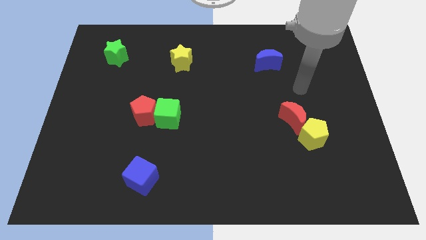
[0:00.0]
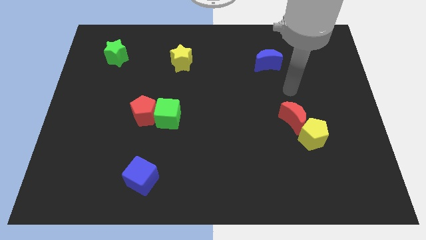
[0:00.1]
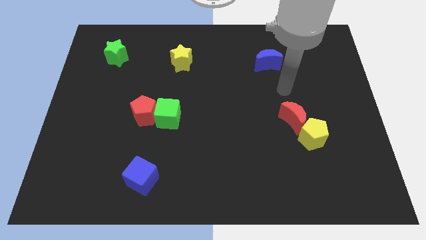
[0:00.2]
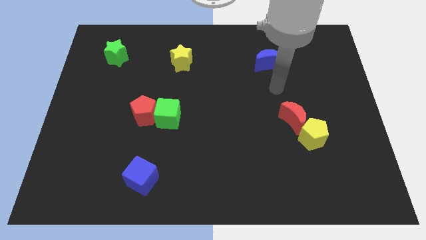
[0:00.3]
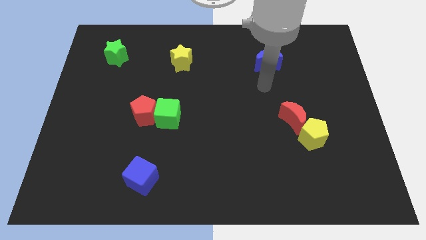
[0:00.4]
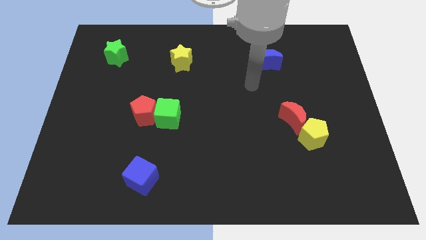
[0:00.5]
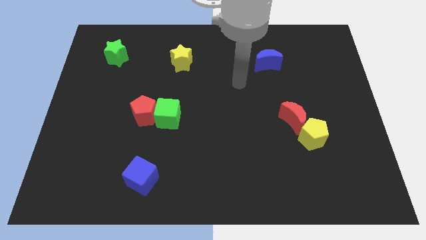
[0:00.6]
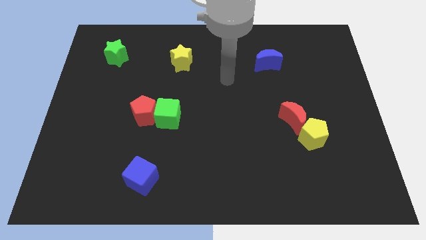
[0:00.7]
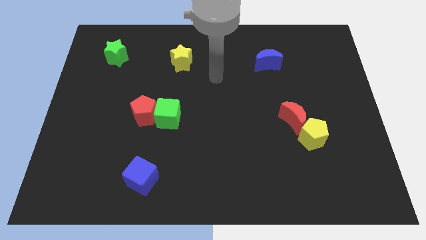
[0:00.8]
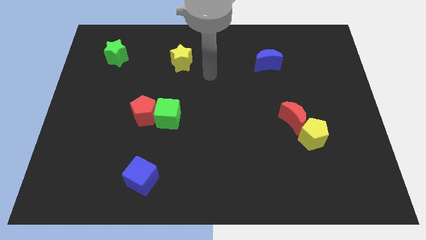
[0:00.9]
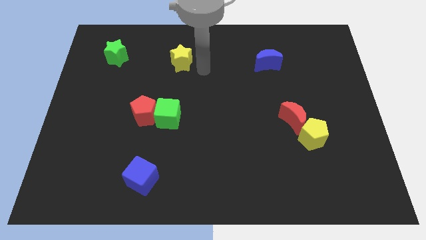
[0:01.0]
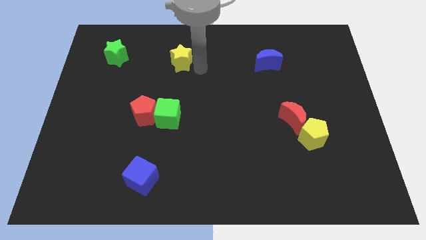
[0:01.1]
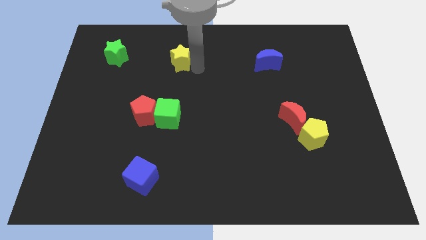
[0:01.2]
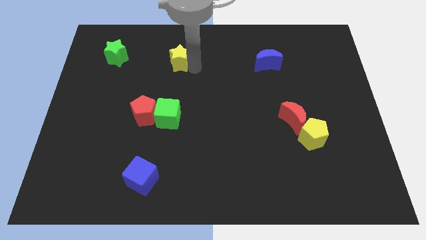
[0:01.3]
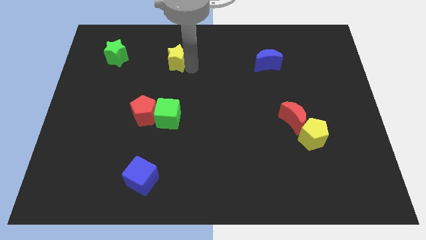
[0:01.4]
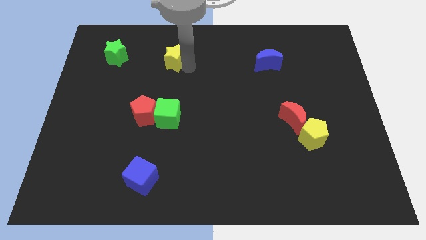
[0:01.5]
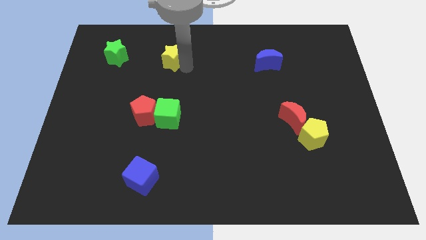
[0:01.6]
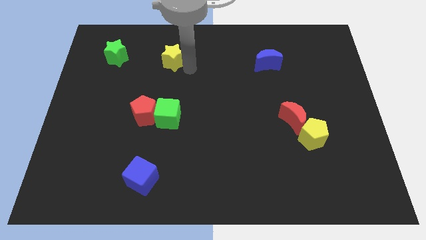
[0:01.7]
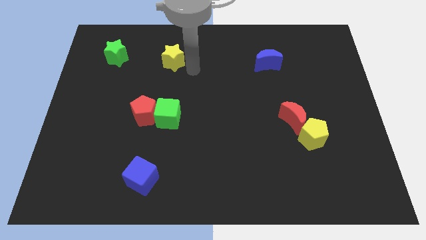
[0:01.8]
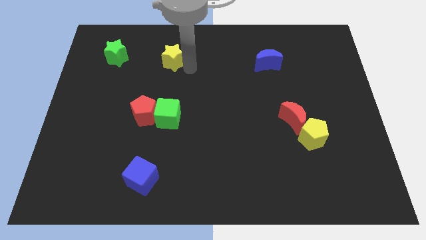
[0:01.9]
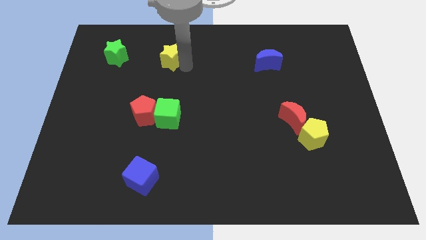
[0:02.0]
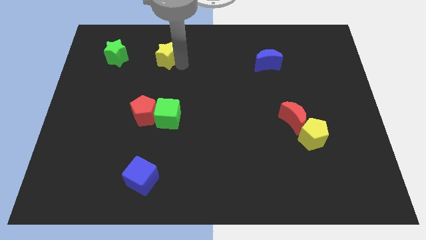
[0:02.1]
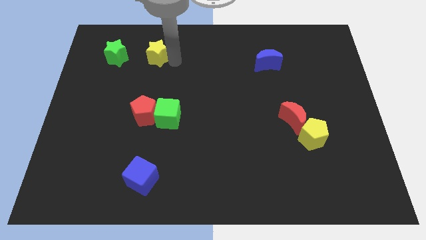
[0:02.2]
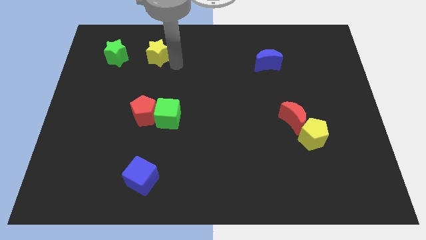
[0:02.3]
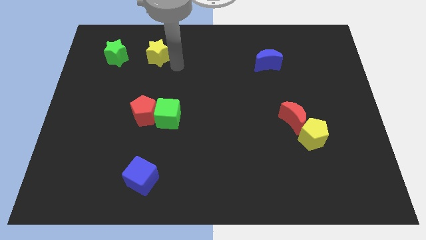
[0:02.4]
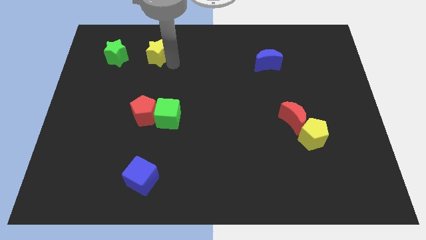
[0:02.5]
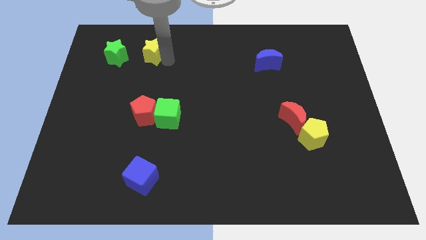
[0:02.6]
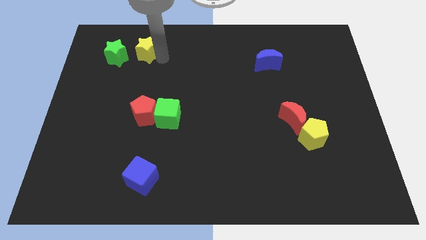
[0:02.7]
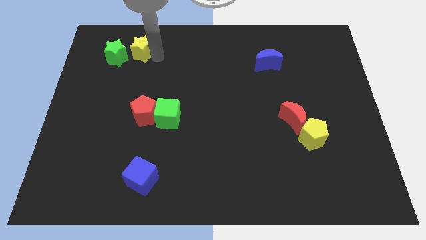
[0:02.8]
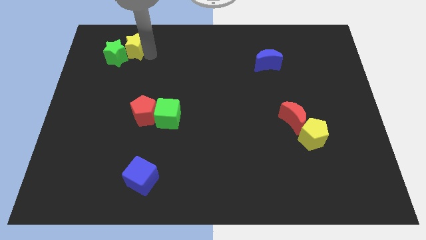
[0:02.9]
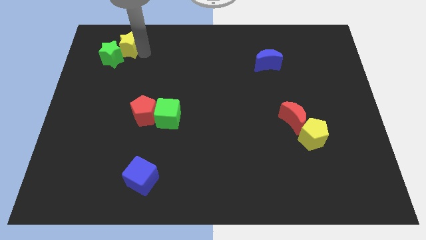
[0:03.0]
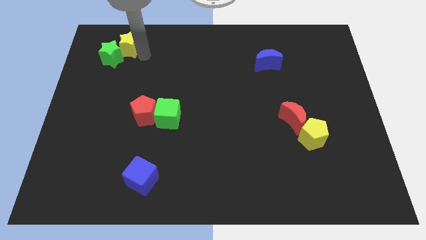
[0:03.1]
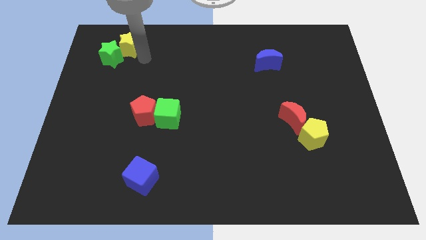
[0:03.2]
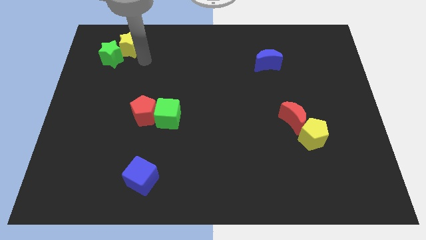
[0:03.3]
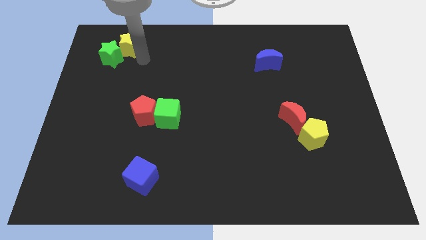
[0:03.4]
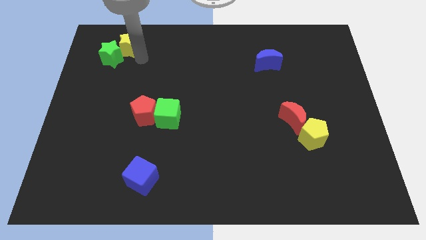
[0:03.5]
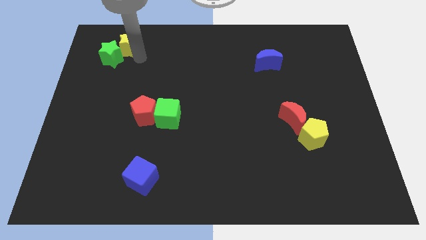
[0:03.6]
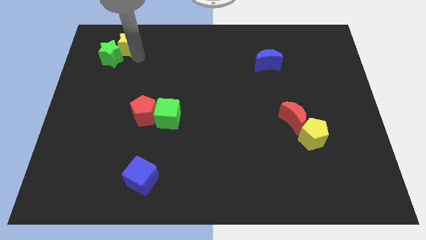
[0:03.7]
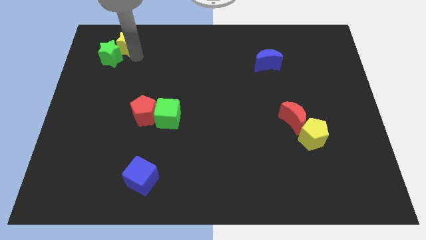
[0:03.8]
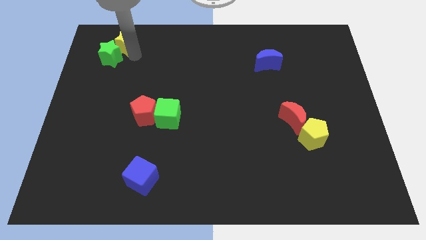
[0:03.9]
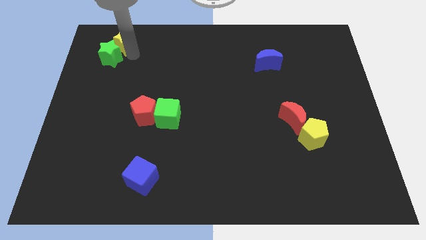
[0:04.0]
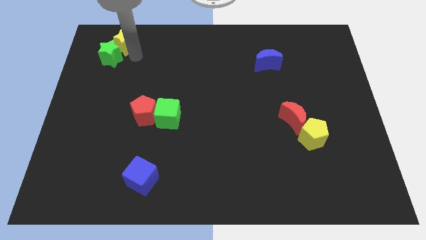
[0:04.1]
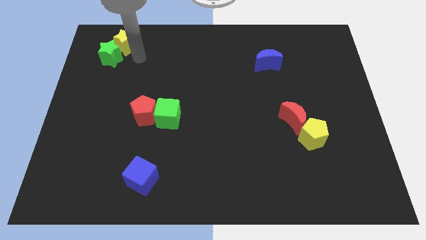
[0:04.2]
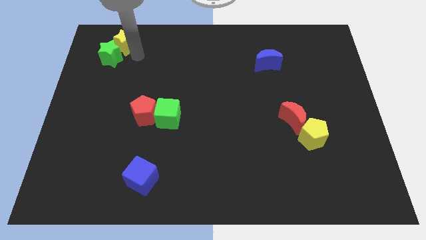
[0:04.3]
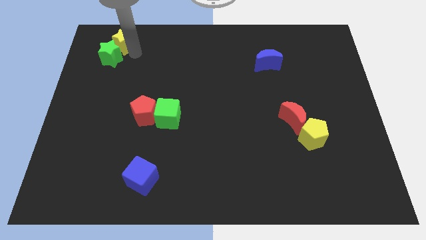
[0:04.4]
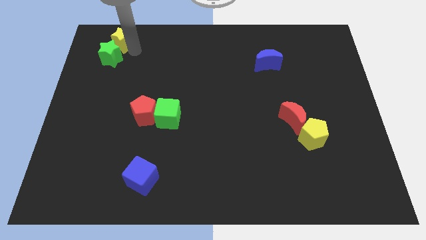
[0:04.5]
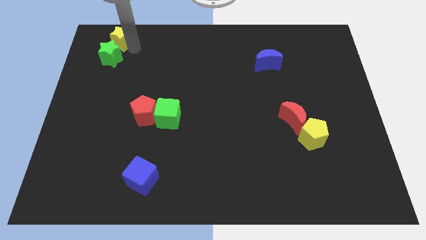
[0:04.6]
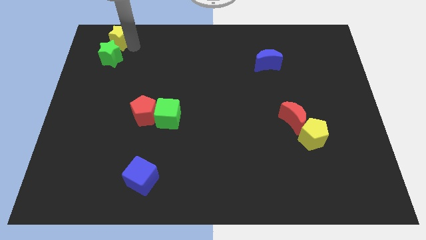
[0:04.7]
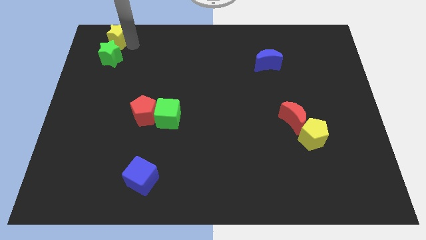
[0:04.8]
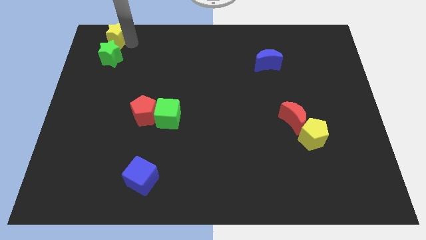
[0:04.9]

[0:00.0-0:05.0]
put the yellow star to the top left corner

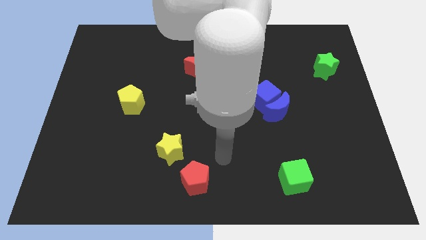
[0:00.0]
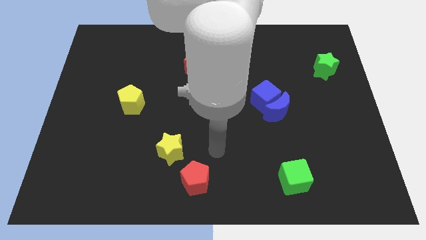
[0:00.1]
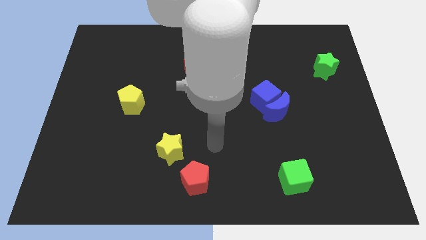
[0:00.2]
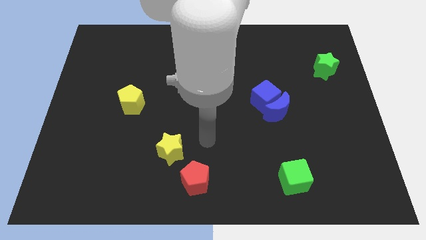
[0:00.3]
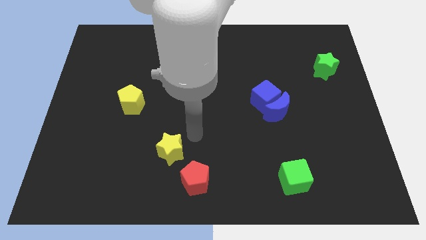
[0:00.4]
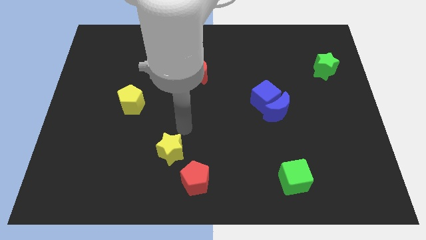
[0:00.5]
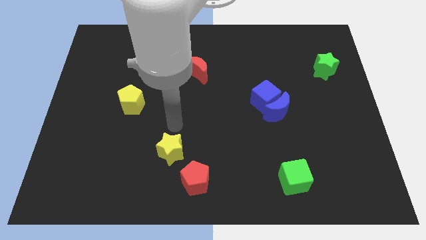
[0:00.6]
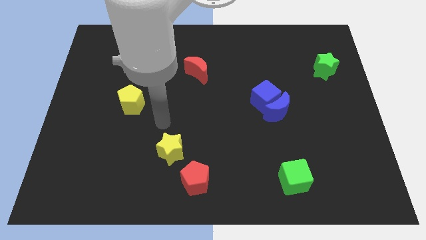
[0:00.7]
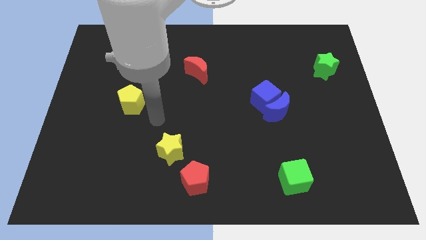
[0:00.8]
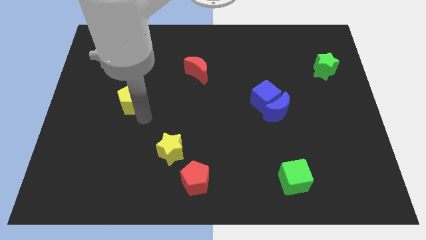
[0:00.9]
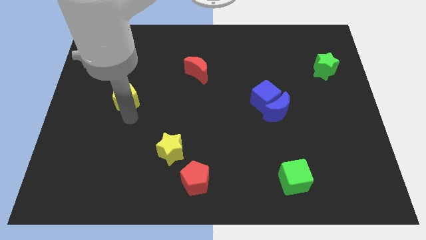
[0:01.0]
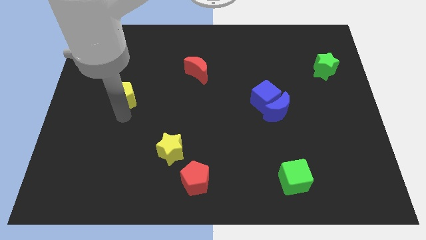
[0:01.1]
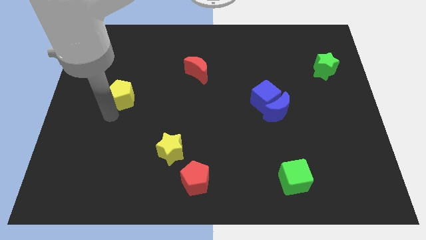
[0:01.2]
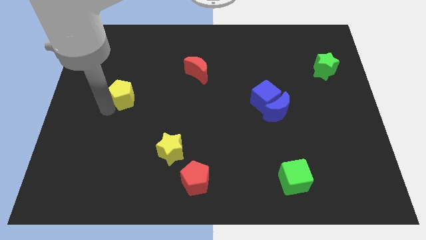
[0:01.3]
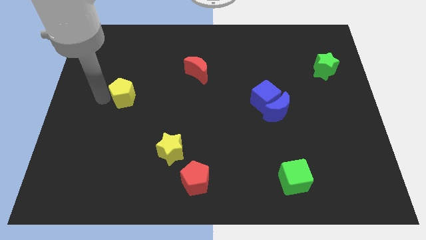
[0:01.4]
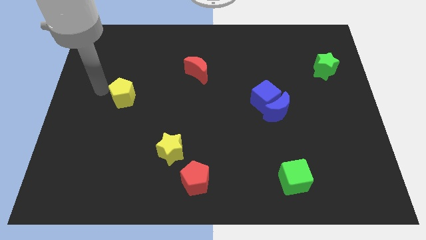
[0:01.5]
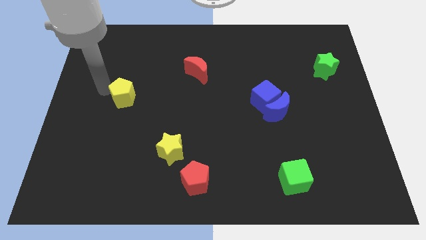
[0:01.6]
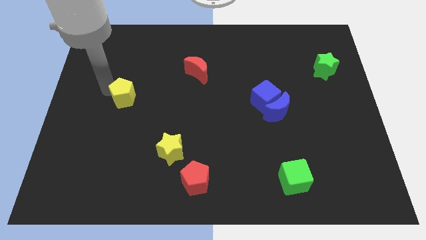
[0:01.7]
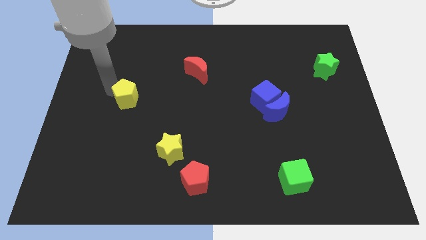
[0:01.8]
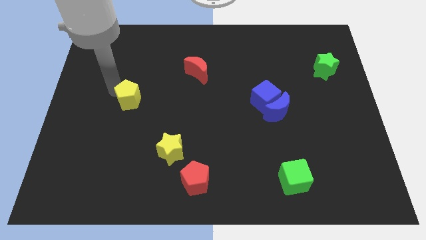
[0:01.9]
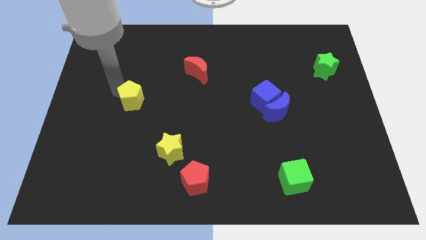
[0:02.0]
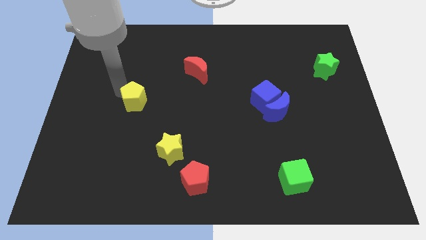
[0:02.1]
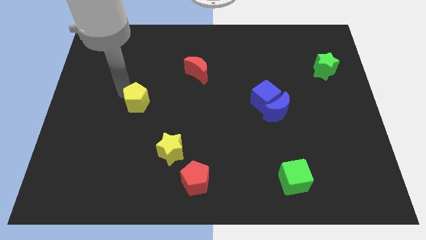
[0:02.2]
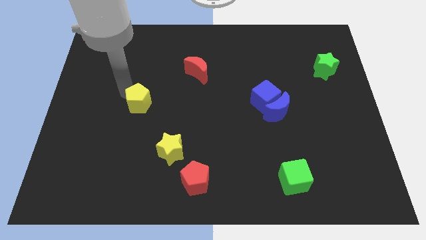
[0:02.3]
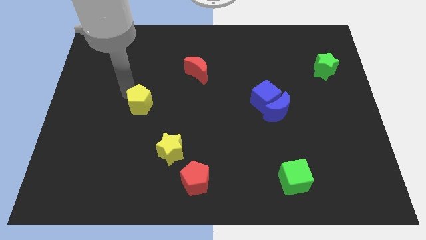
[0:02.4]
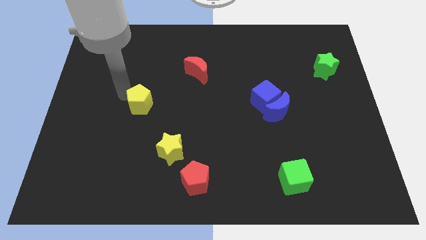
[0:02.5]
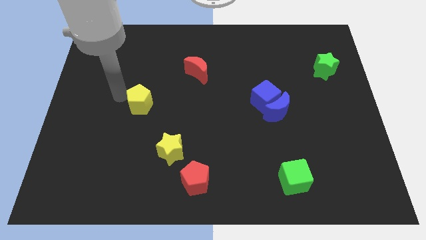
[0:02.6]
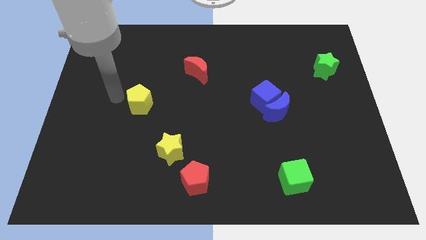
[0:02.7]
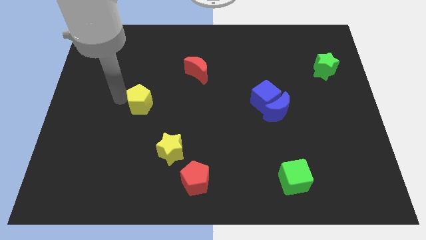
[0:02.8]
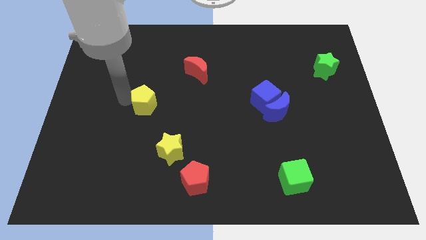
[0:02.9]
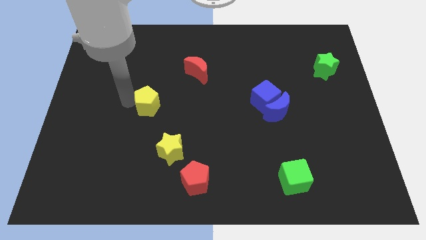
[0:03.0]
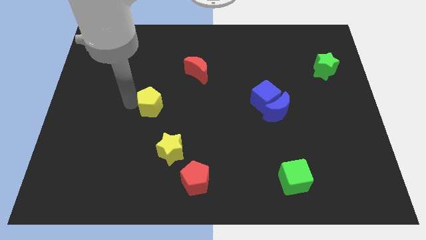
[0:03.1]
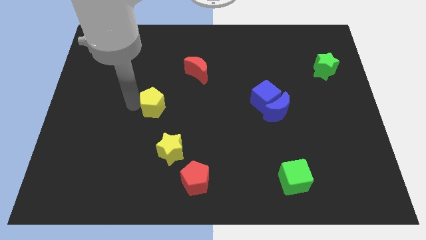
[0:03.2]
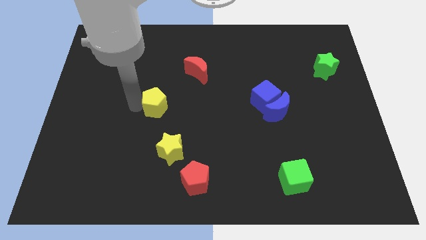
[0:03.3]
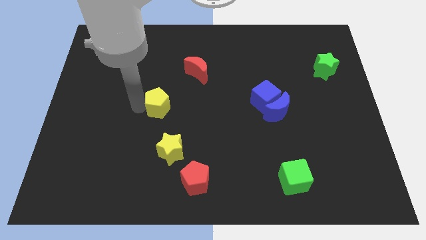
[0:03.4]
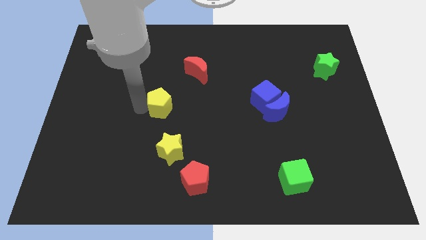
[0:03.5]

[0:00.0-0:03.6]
push the yellow pentagon to the center
